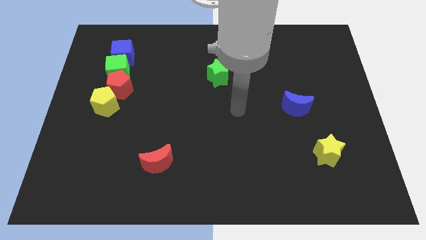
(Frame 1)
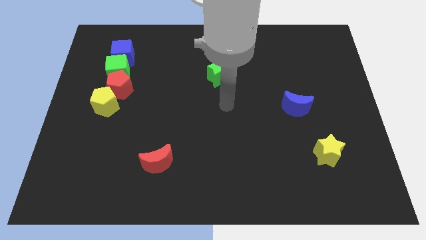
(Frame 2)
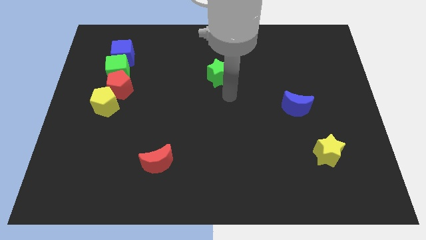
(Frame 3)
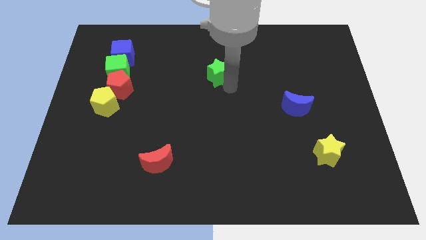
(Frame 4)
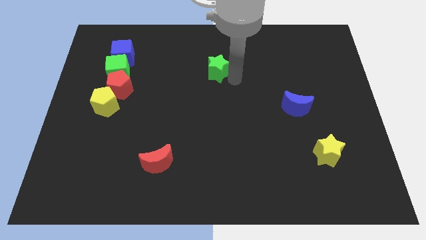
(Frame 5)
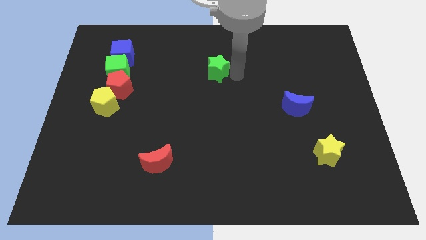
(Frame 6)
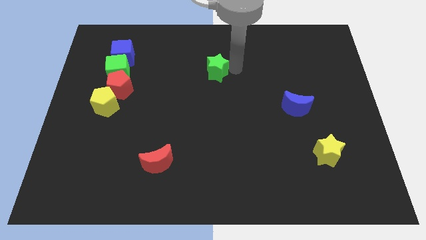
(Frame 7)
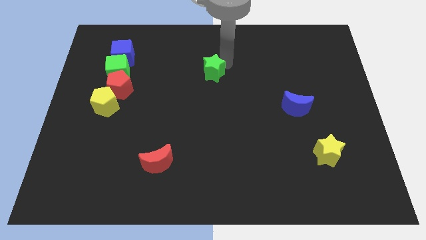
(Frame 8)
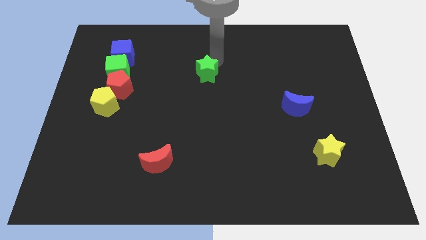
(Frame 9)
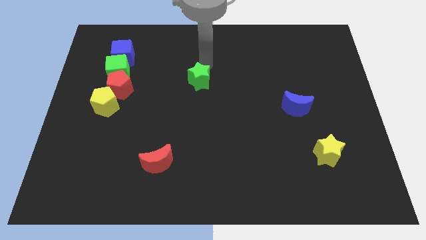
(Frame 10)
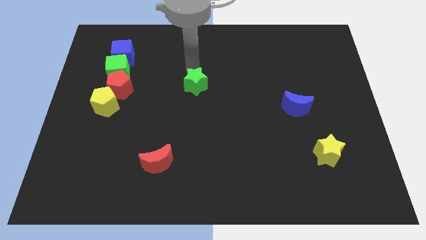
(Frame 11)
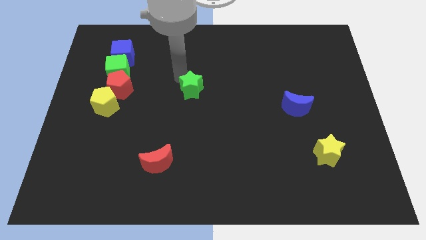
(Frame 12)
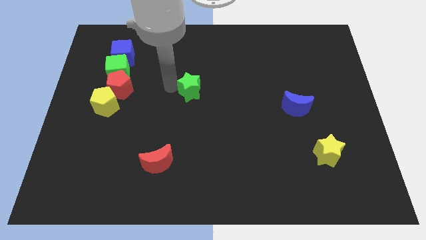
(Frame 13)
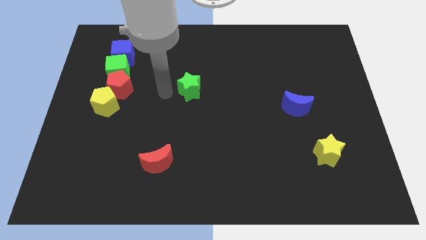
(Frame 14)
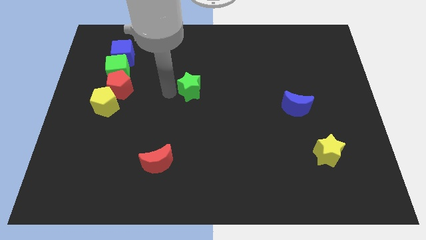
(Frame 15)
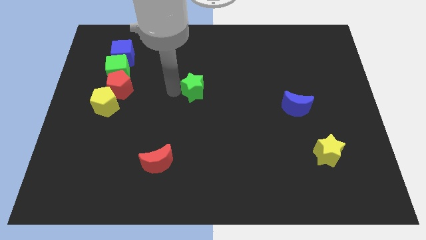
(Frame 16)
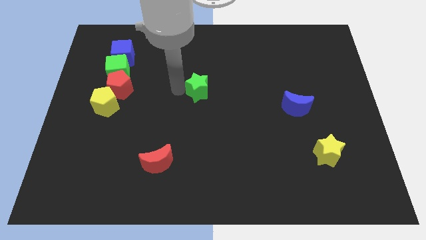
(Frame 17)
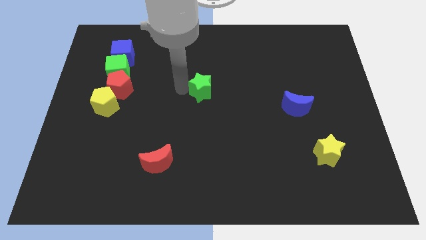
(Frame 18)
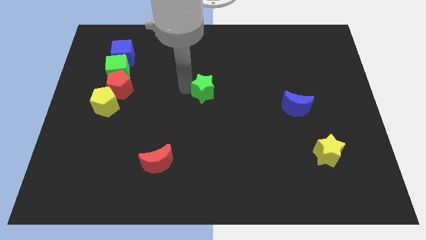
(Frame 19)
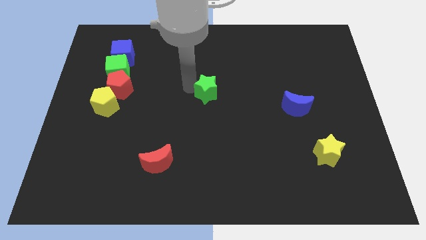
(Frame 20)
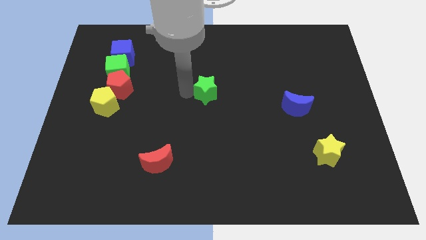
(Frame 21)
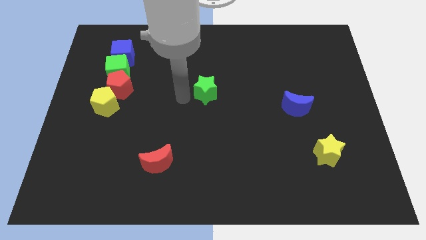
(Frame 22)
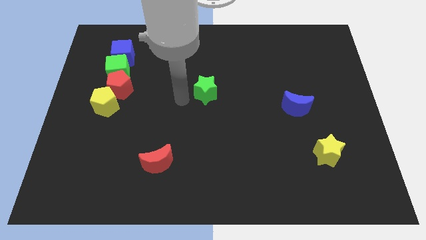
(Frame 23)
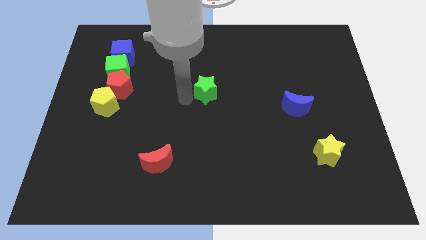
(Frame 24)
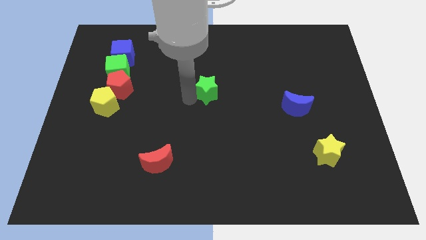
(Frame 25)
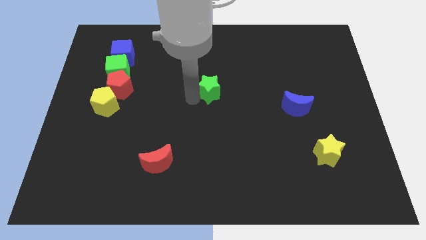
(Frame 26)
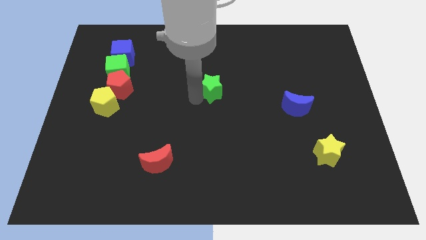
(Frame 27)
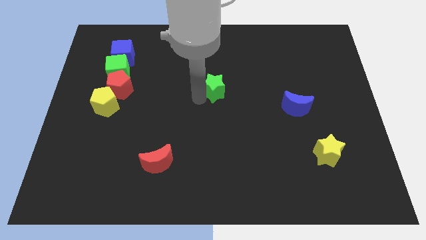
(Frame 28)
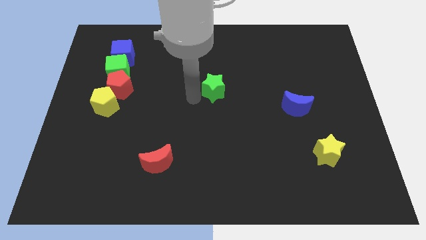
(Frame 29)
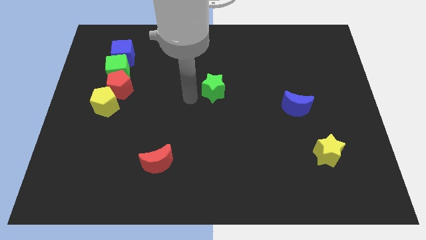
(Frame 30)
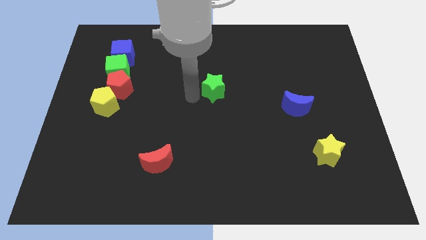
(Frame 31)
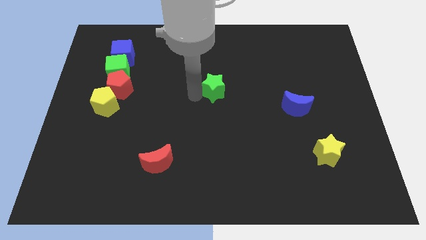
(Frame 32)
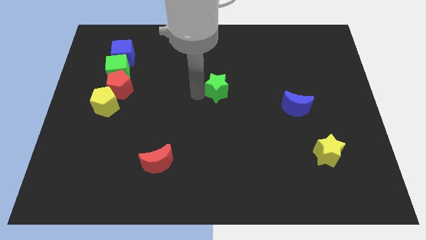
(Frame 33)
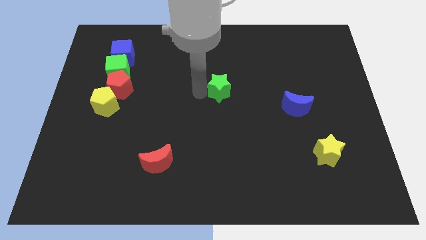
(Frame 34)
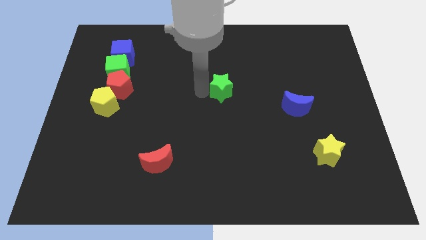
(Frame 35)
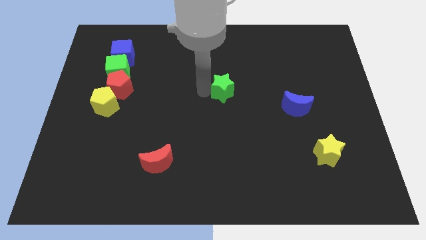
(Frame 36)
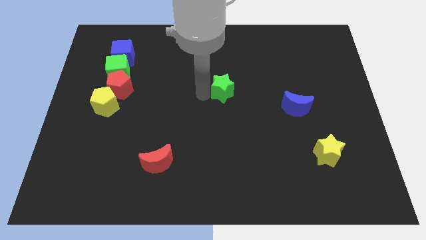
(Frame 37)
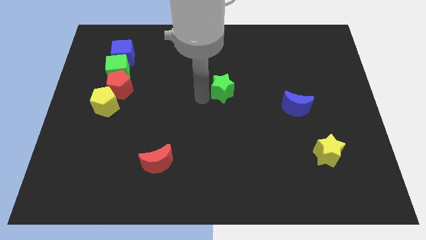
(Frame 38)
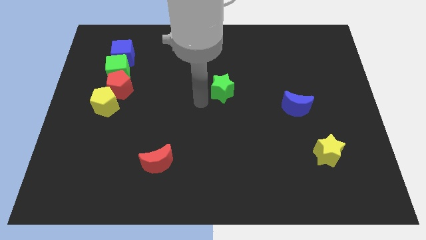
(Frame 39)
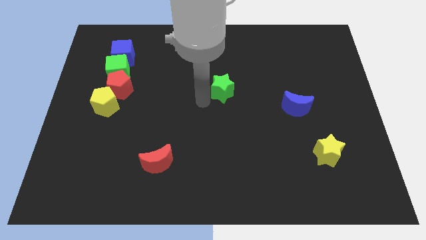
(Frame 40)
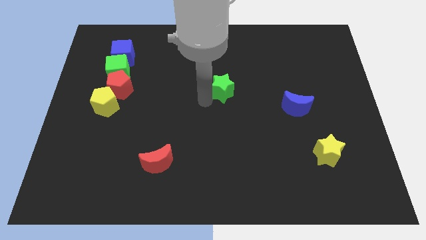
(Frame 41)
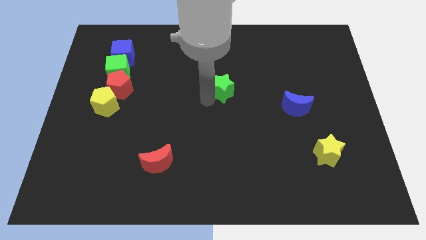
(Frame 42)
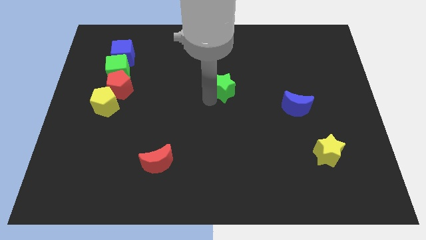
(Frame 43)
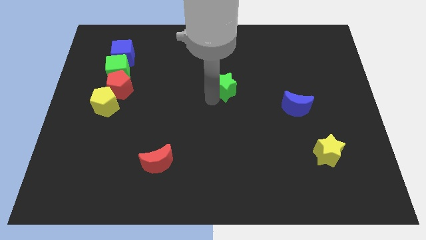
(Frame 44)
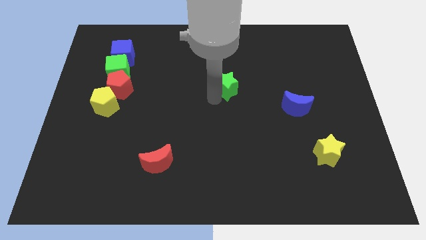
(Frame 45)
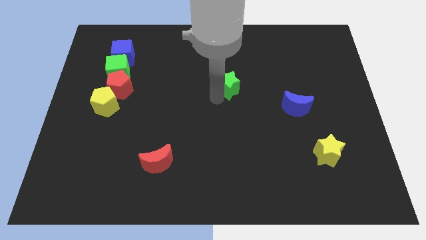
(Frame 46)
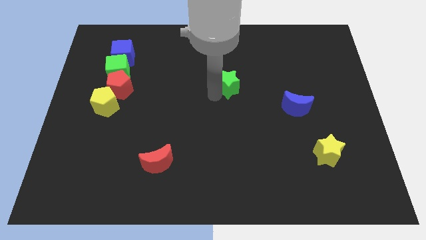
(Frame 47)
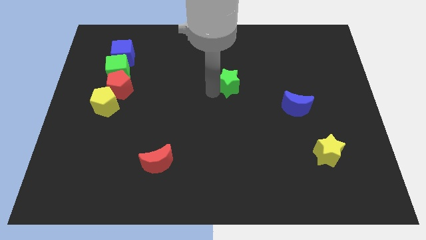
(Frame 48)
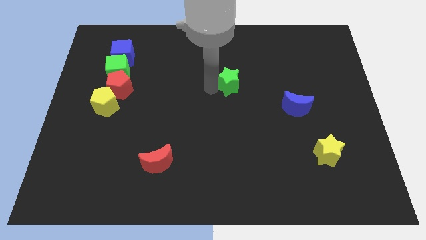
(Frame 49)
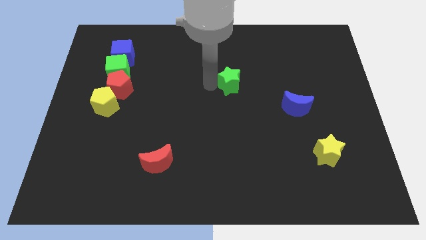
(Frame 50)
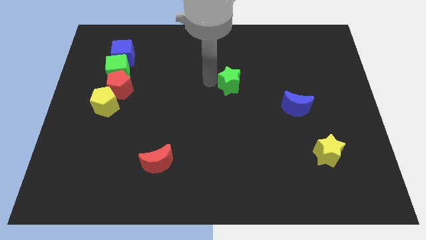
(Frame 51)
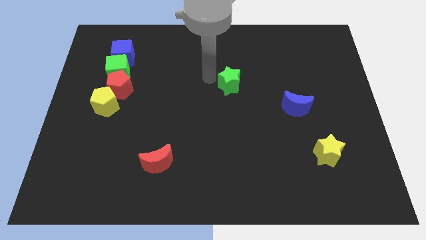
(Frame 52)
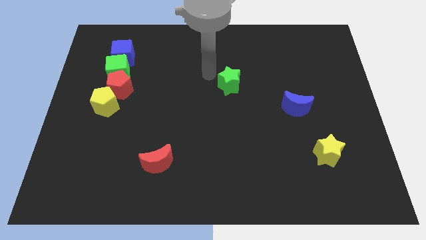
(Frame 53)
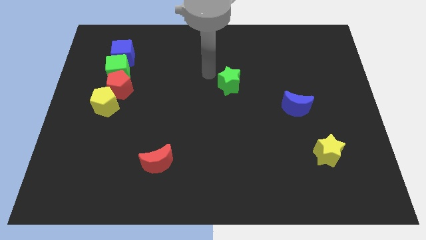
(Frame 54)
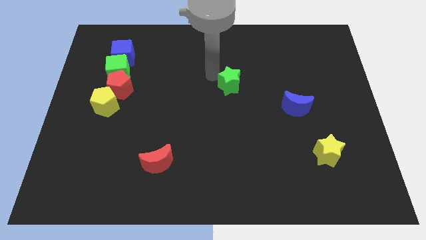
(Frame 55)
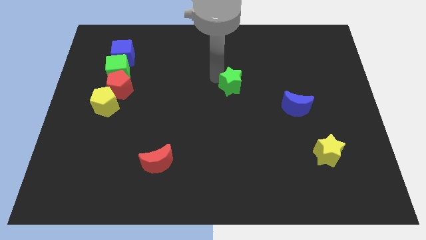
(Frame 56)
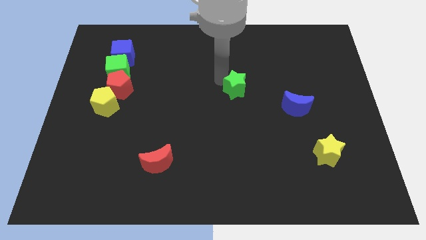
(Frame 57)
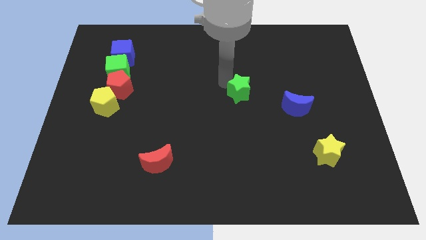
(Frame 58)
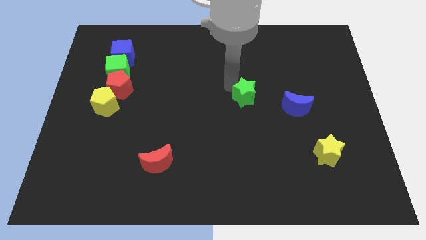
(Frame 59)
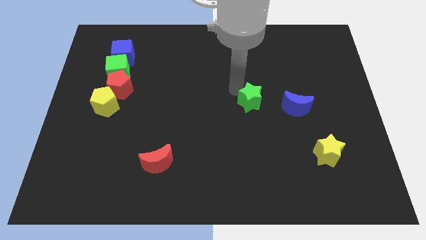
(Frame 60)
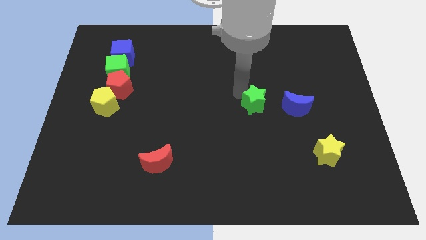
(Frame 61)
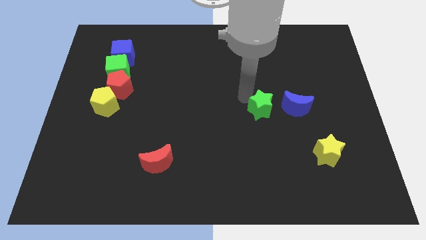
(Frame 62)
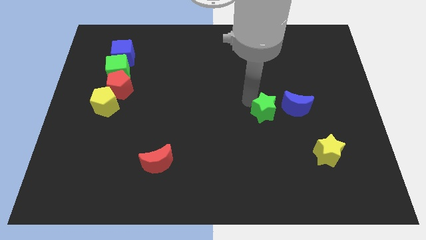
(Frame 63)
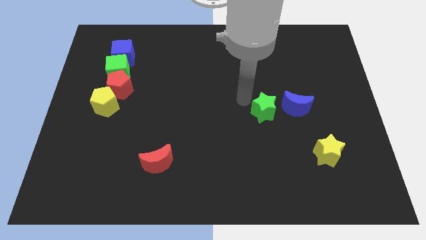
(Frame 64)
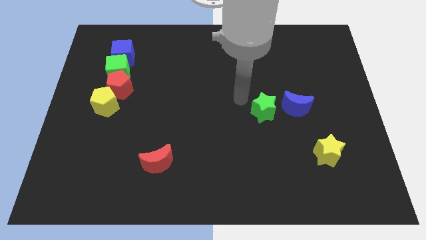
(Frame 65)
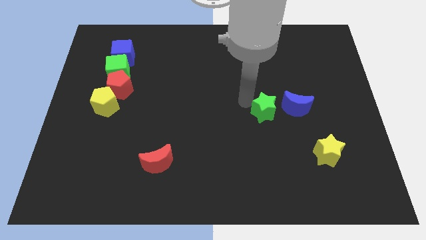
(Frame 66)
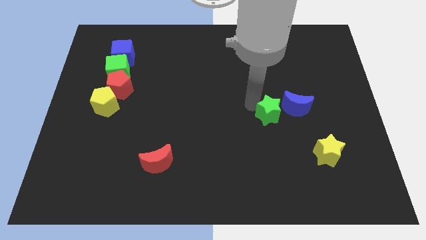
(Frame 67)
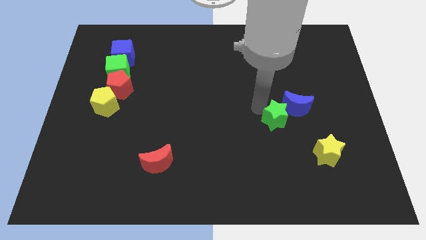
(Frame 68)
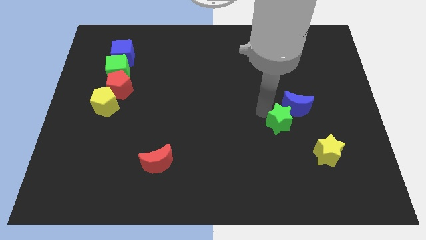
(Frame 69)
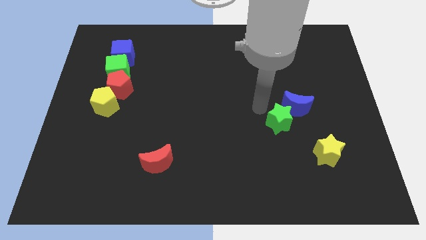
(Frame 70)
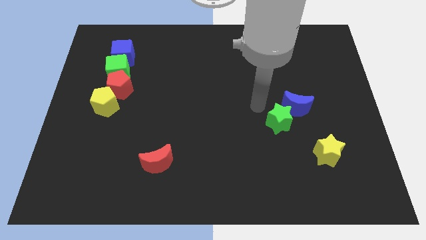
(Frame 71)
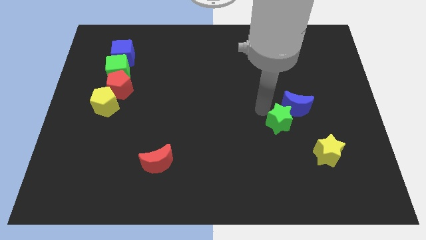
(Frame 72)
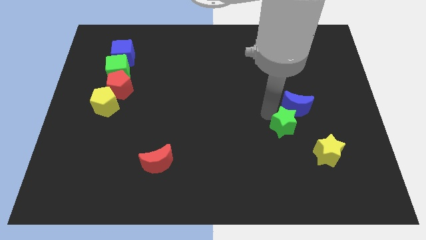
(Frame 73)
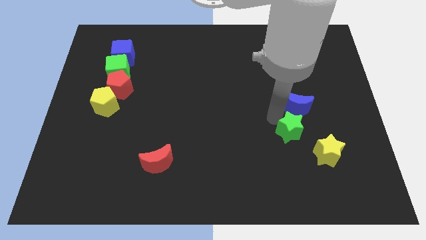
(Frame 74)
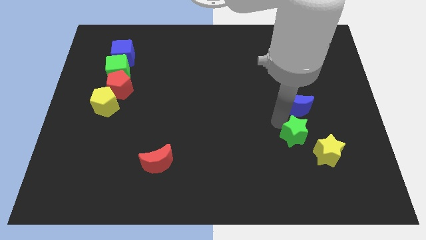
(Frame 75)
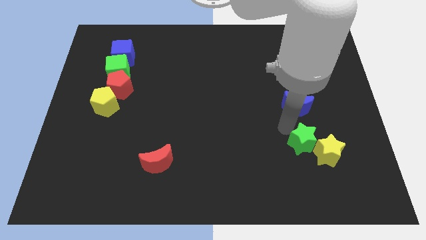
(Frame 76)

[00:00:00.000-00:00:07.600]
move the green star next to the yellow star
